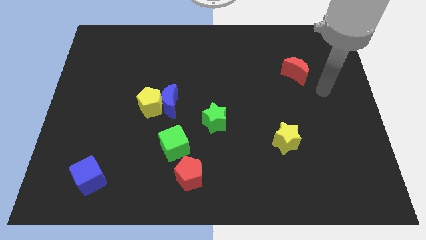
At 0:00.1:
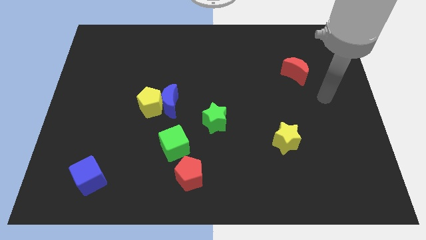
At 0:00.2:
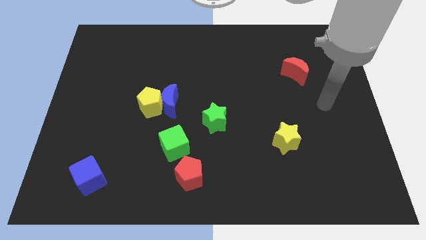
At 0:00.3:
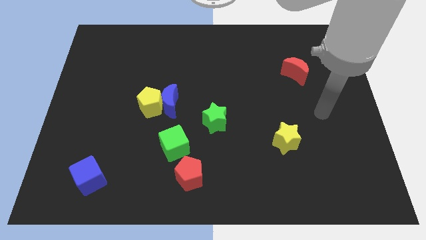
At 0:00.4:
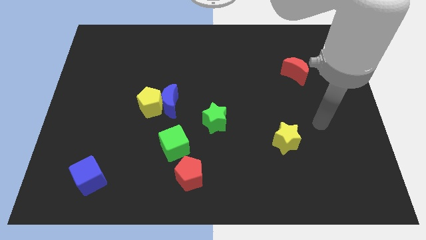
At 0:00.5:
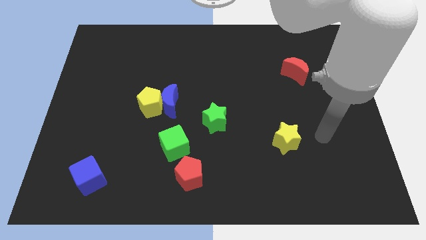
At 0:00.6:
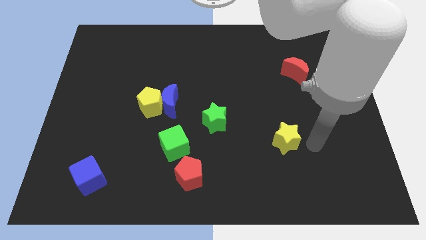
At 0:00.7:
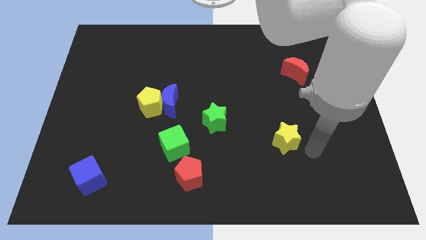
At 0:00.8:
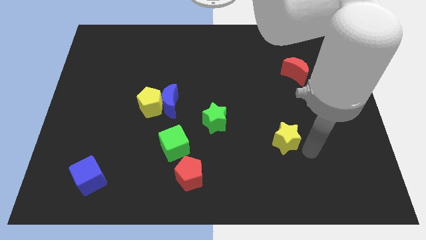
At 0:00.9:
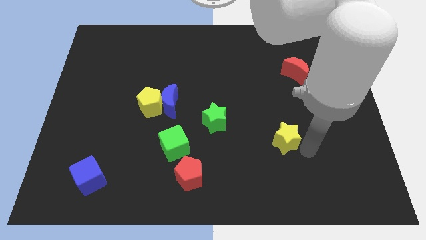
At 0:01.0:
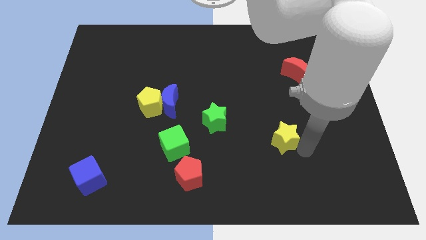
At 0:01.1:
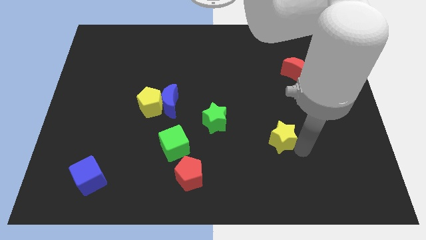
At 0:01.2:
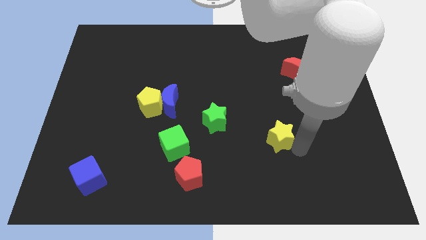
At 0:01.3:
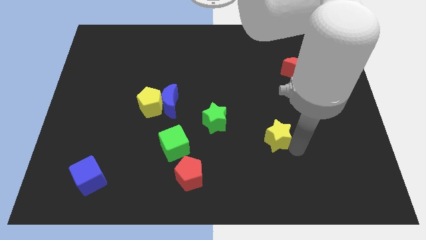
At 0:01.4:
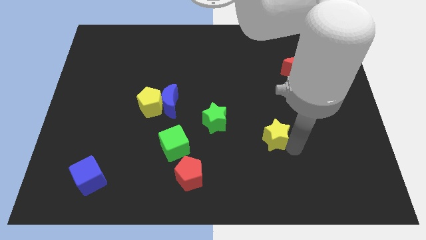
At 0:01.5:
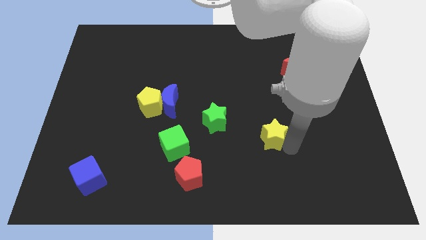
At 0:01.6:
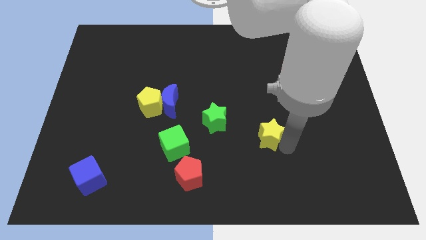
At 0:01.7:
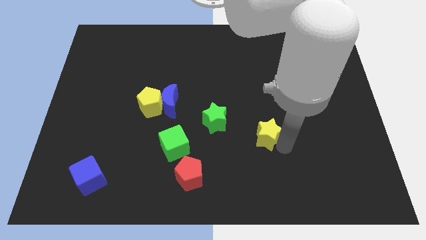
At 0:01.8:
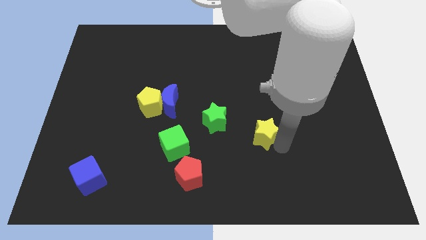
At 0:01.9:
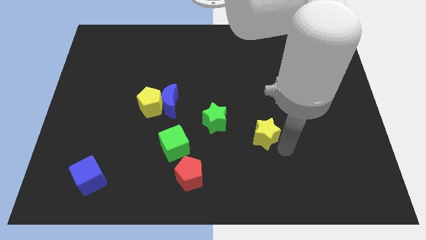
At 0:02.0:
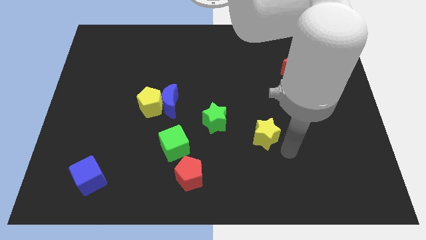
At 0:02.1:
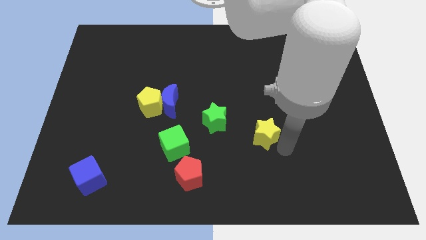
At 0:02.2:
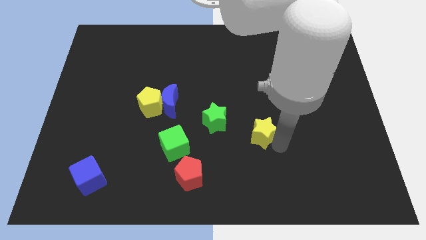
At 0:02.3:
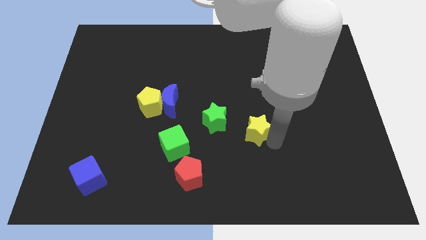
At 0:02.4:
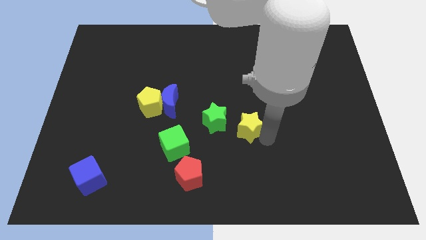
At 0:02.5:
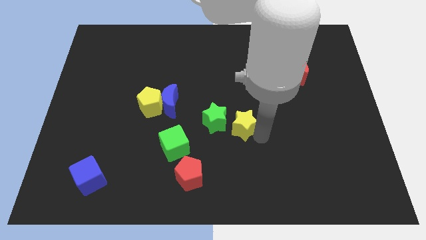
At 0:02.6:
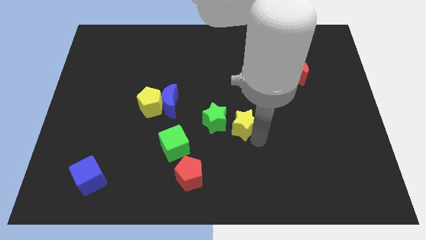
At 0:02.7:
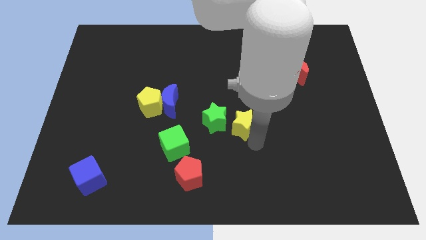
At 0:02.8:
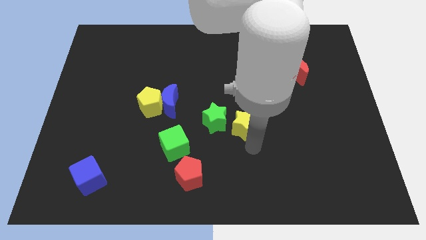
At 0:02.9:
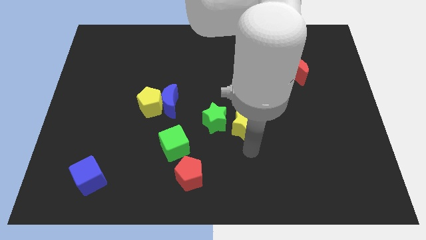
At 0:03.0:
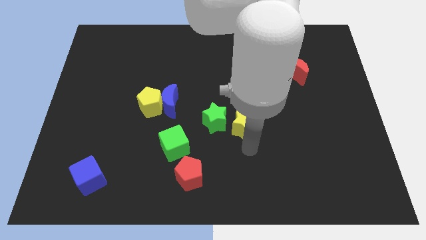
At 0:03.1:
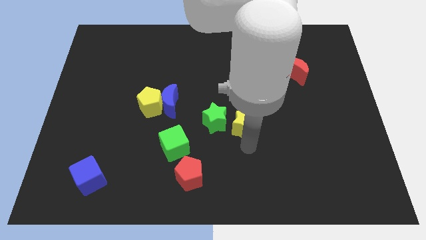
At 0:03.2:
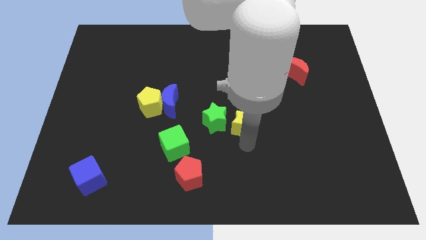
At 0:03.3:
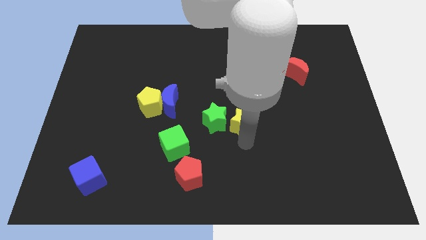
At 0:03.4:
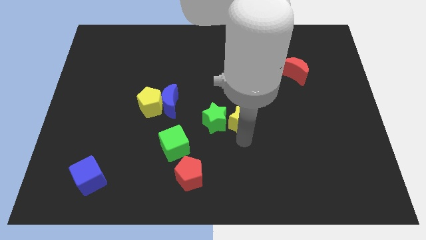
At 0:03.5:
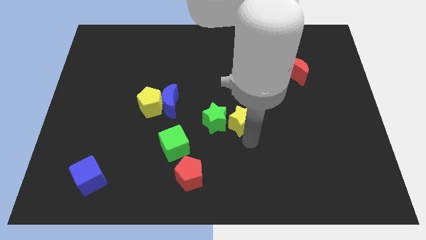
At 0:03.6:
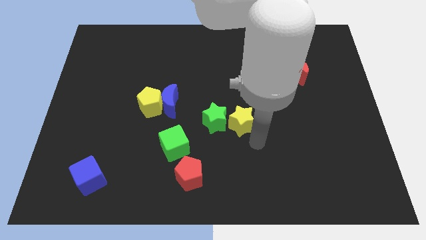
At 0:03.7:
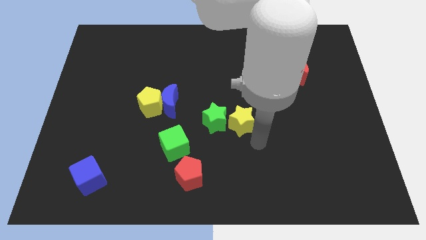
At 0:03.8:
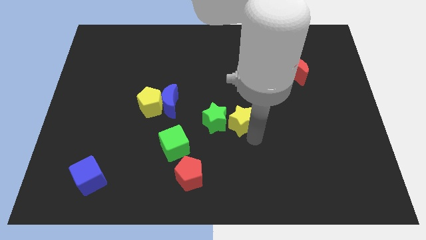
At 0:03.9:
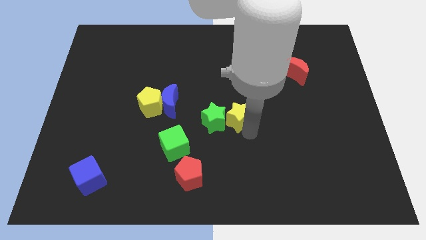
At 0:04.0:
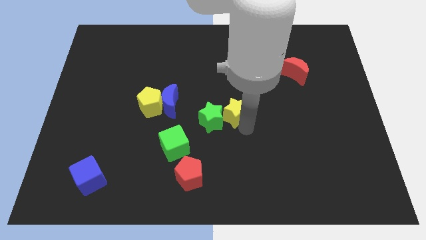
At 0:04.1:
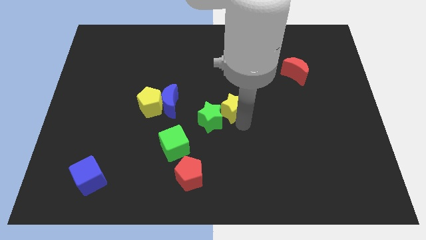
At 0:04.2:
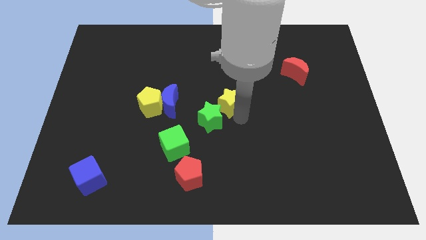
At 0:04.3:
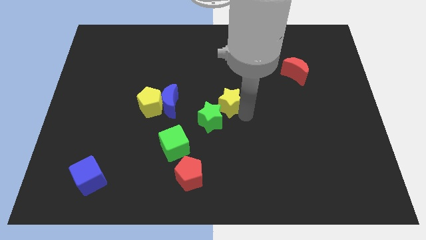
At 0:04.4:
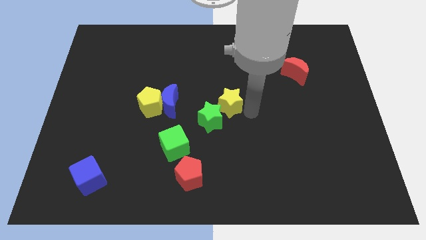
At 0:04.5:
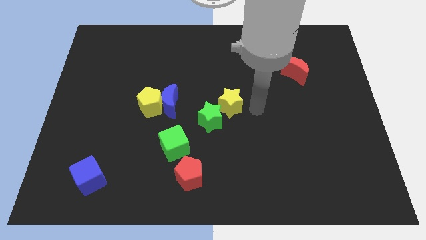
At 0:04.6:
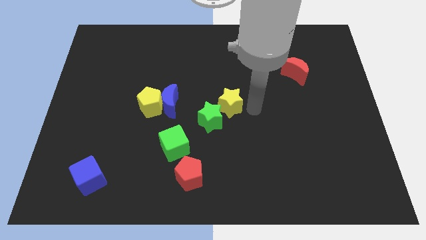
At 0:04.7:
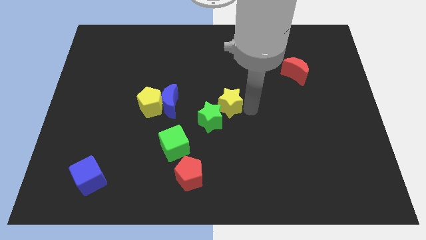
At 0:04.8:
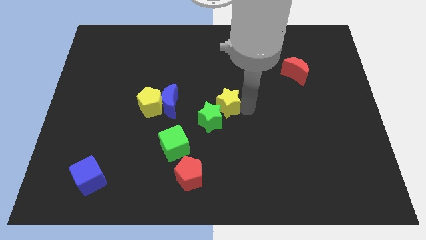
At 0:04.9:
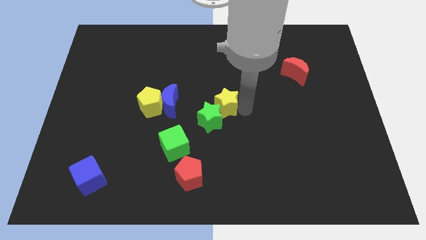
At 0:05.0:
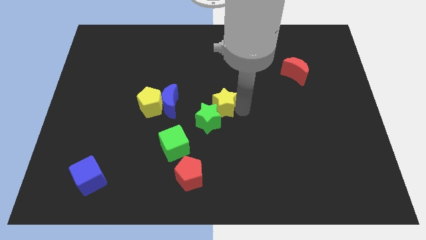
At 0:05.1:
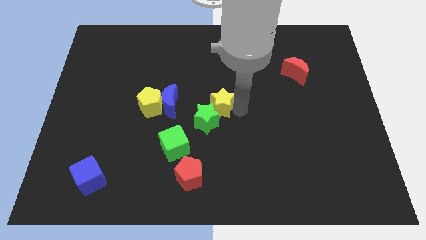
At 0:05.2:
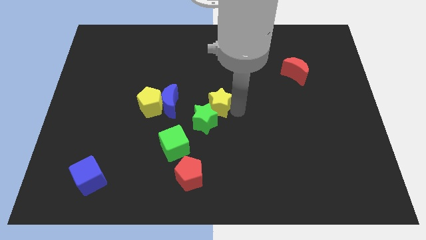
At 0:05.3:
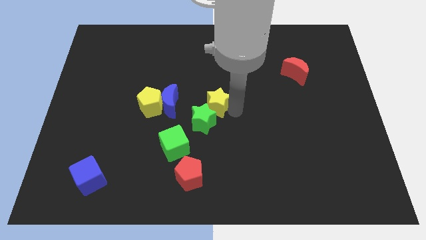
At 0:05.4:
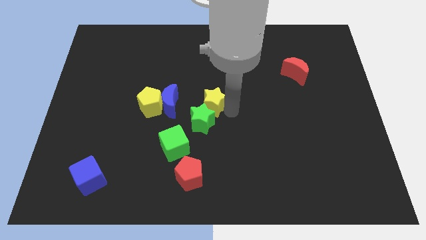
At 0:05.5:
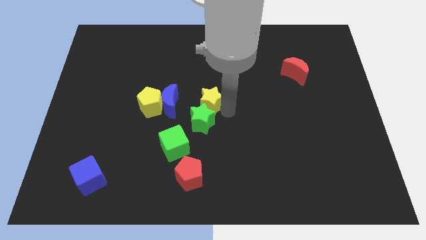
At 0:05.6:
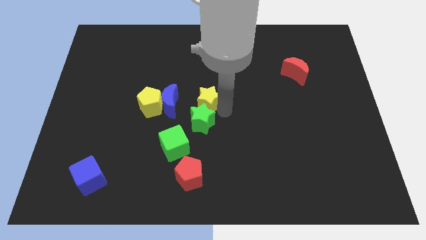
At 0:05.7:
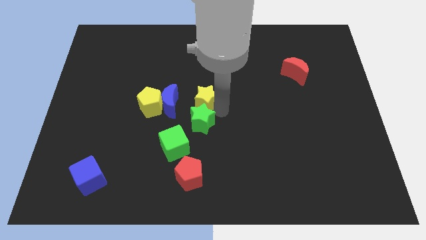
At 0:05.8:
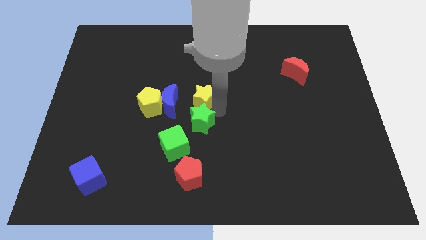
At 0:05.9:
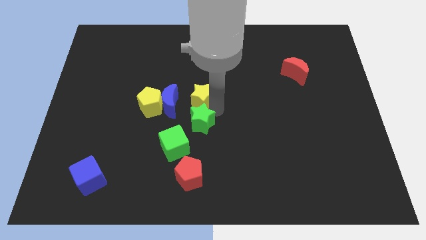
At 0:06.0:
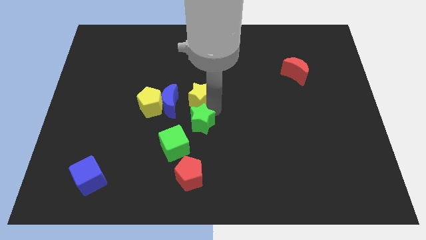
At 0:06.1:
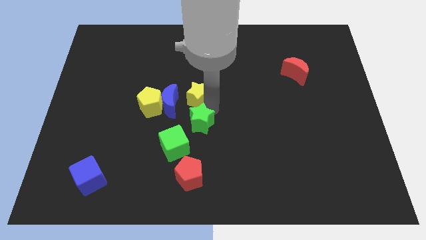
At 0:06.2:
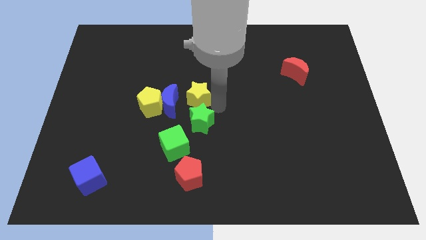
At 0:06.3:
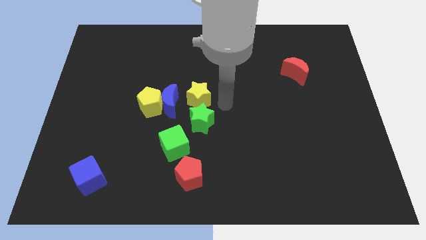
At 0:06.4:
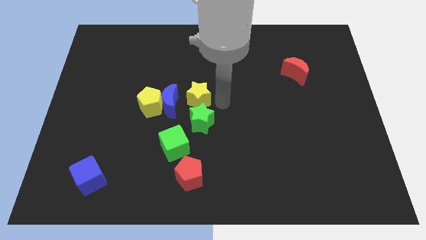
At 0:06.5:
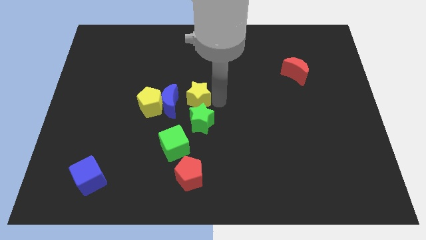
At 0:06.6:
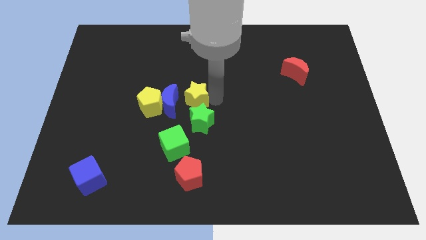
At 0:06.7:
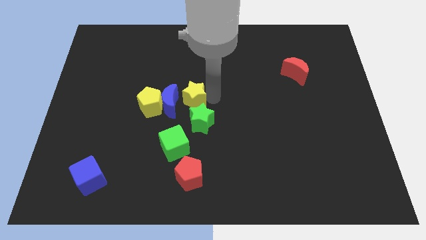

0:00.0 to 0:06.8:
move the yellow star close to the blue moon

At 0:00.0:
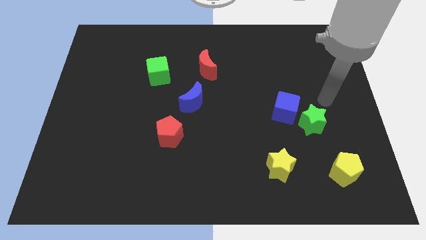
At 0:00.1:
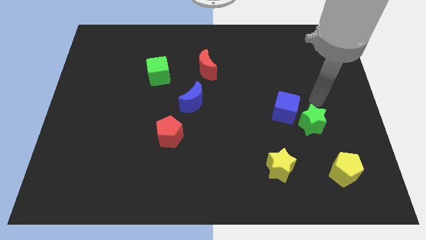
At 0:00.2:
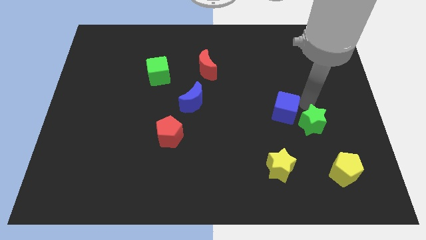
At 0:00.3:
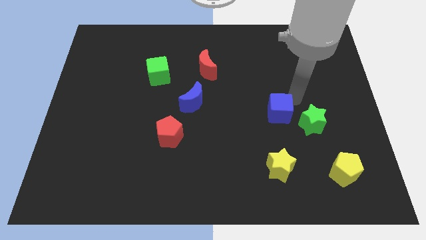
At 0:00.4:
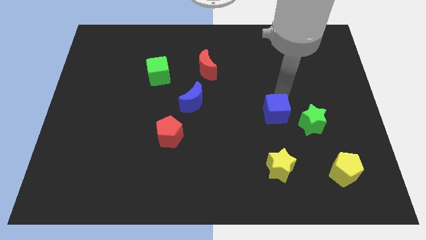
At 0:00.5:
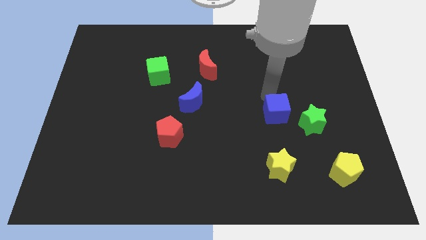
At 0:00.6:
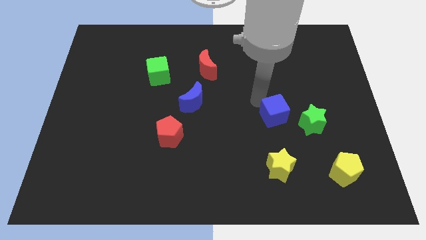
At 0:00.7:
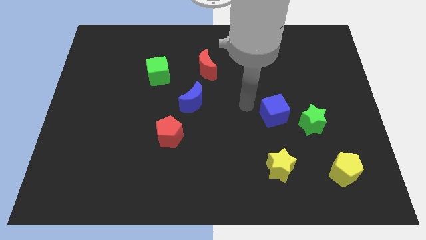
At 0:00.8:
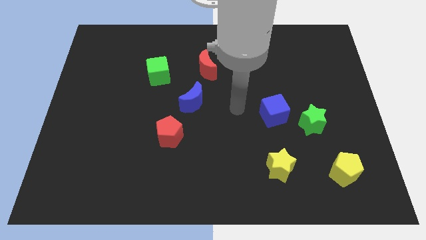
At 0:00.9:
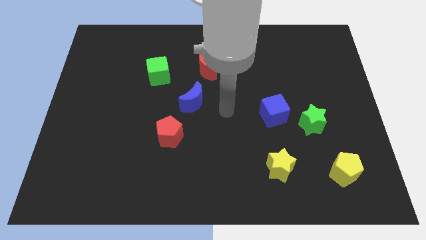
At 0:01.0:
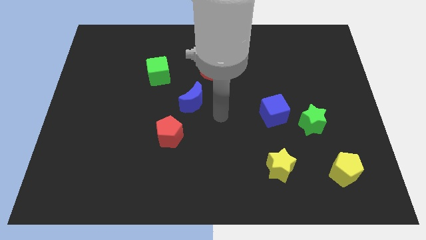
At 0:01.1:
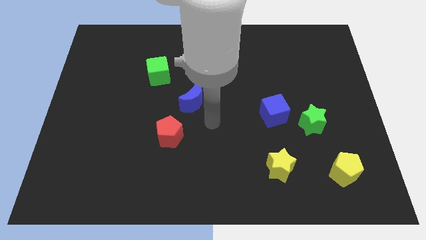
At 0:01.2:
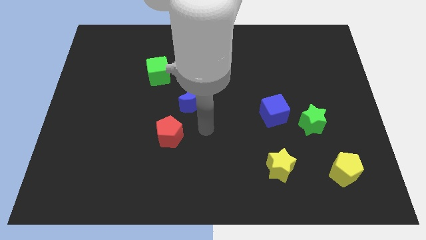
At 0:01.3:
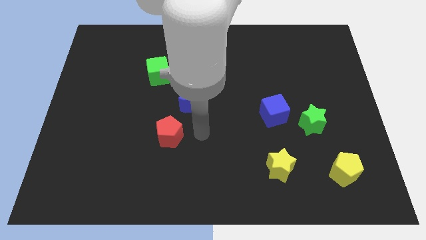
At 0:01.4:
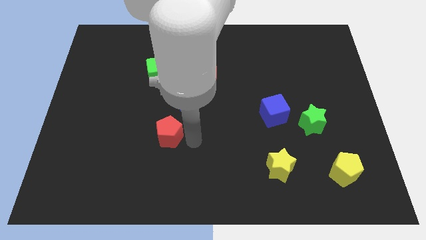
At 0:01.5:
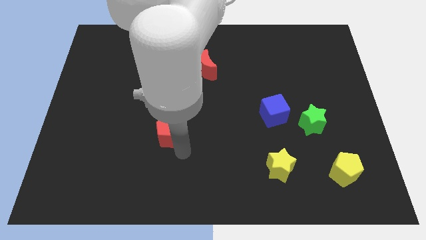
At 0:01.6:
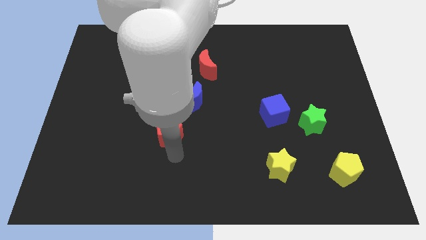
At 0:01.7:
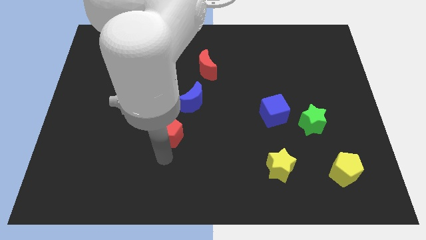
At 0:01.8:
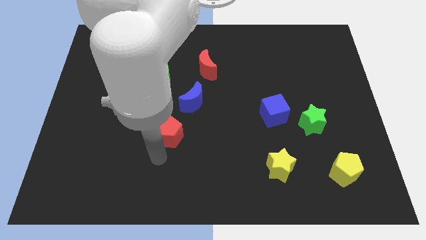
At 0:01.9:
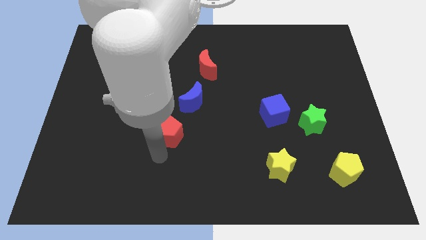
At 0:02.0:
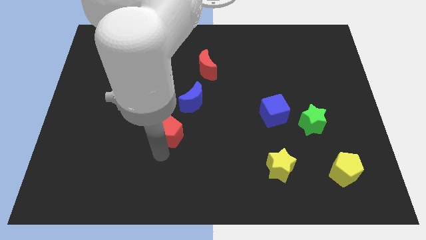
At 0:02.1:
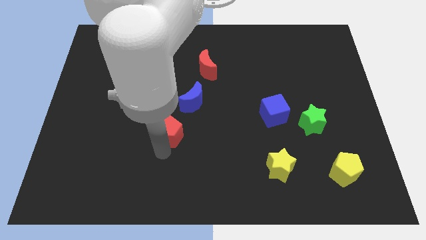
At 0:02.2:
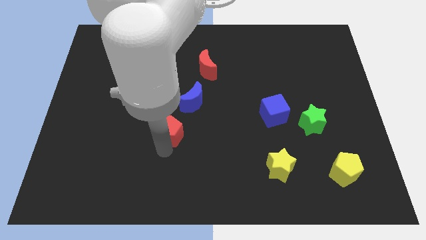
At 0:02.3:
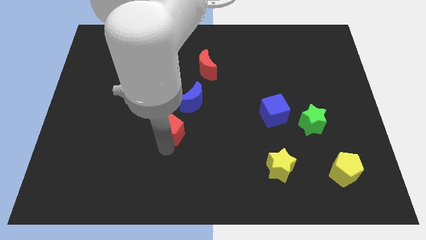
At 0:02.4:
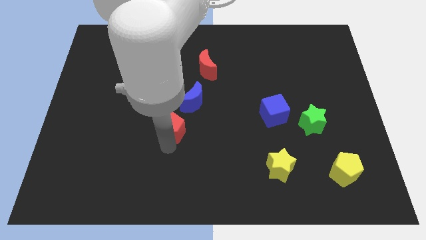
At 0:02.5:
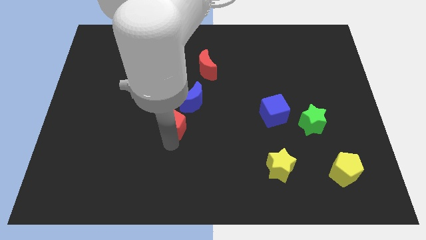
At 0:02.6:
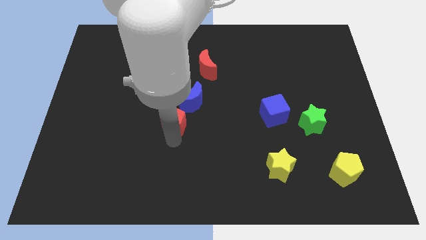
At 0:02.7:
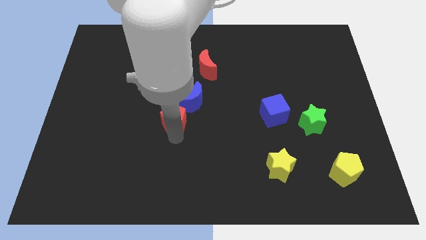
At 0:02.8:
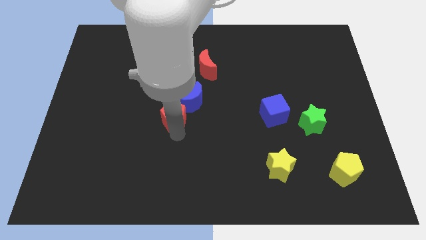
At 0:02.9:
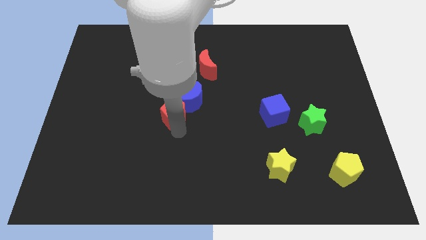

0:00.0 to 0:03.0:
put the red pentagon close to the blue moon
